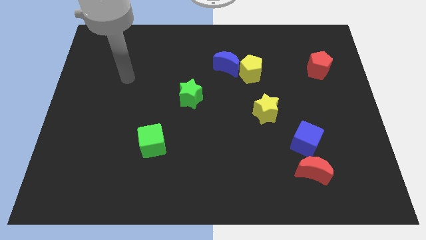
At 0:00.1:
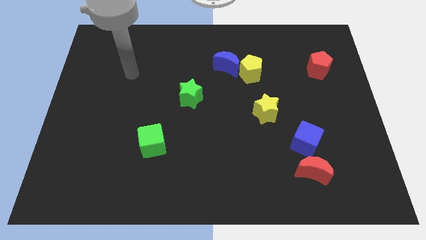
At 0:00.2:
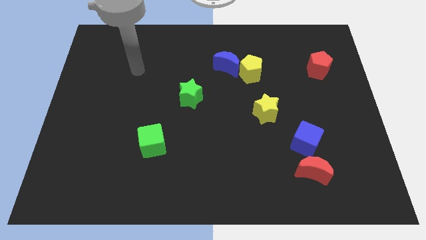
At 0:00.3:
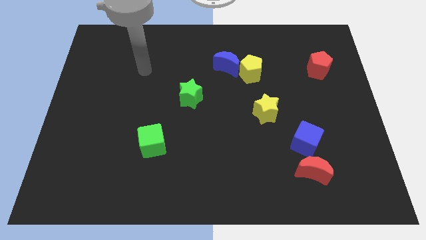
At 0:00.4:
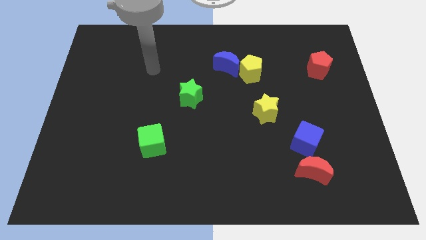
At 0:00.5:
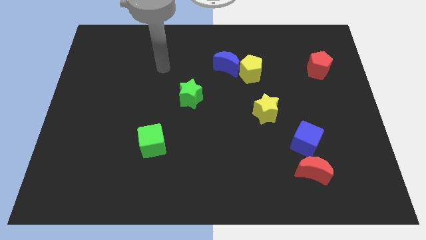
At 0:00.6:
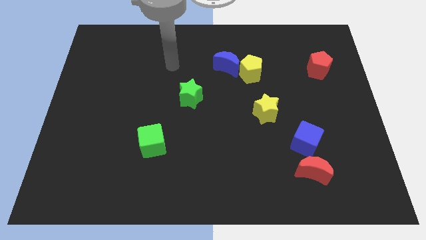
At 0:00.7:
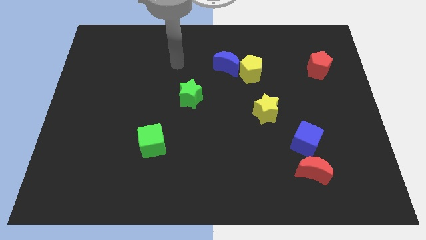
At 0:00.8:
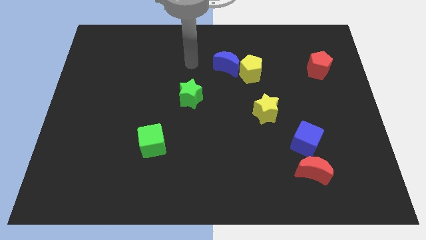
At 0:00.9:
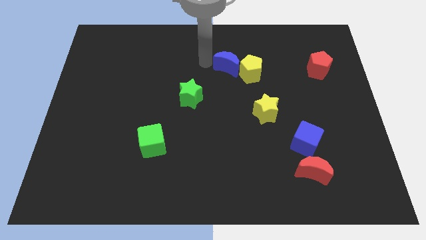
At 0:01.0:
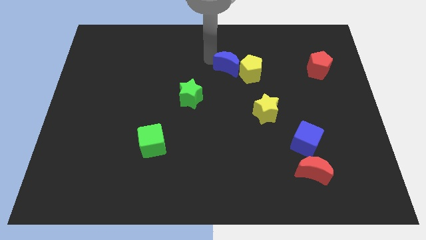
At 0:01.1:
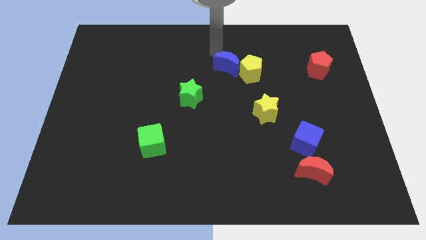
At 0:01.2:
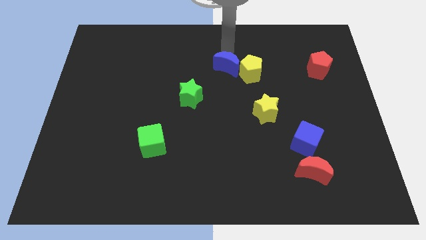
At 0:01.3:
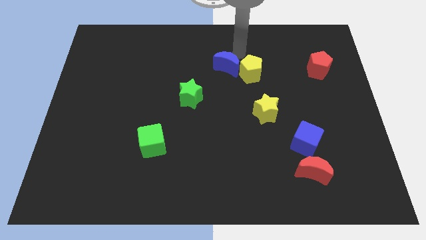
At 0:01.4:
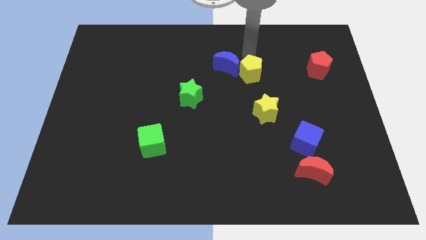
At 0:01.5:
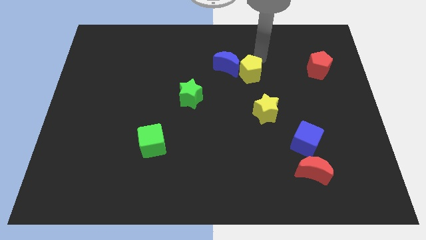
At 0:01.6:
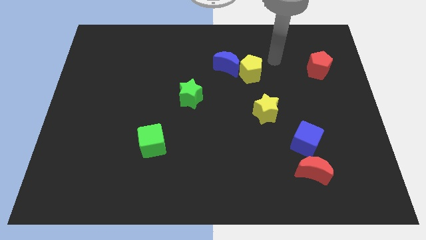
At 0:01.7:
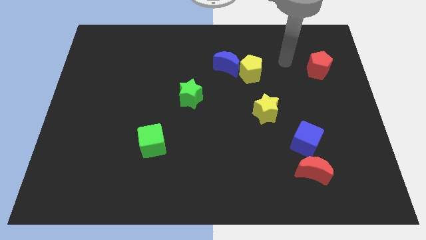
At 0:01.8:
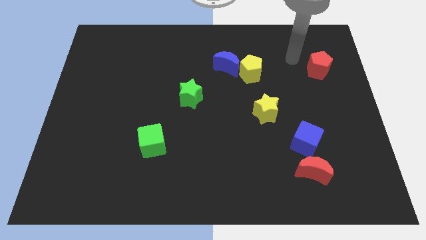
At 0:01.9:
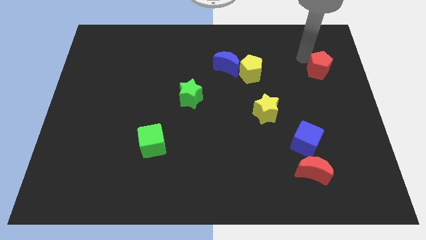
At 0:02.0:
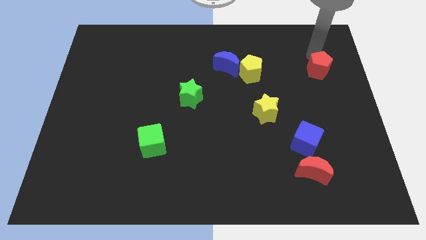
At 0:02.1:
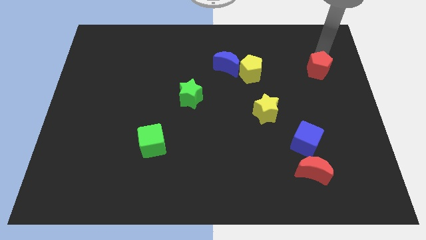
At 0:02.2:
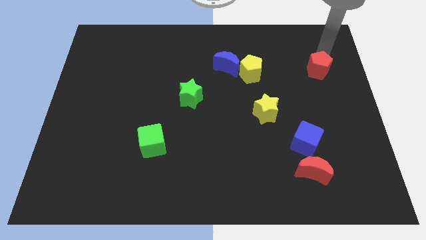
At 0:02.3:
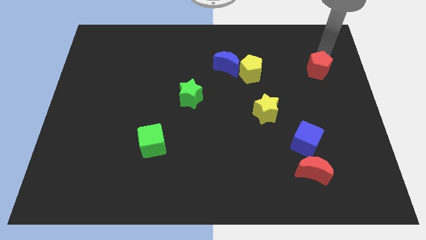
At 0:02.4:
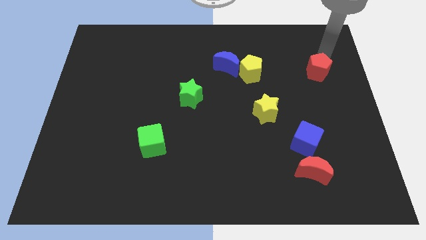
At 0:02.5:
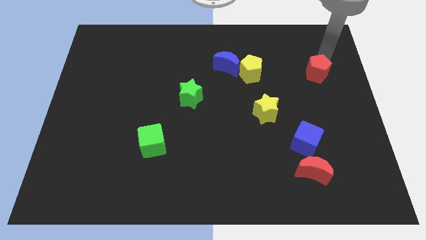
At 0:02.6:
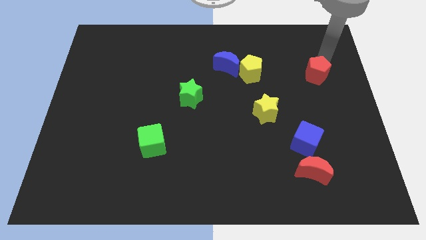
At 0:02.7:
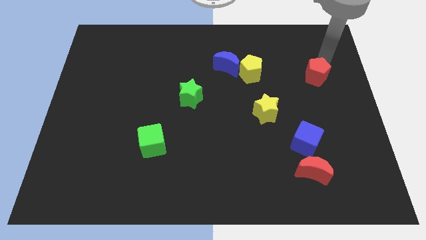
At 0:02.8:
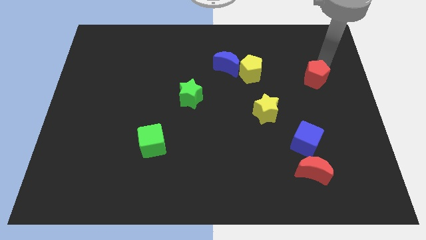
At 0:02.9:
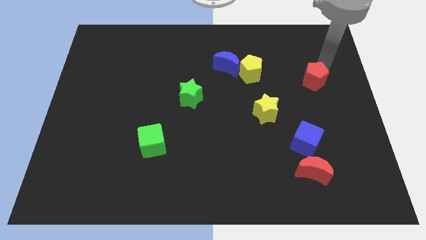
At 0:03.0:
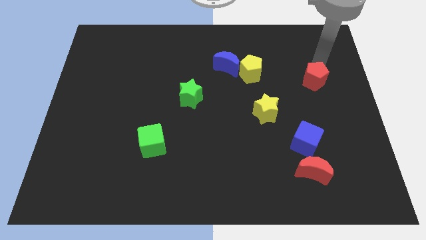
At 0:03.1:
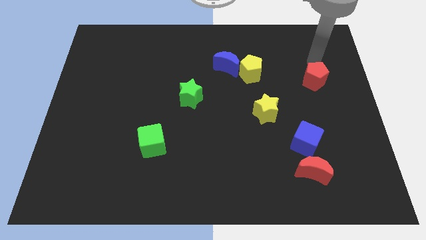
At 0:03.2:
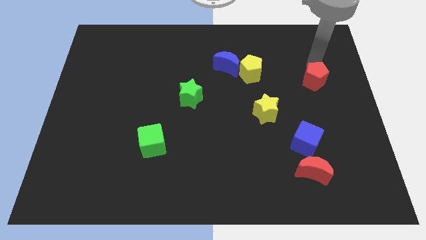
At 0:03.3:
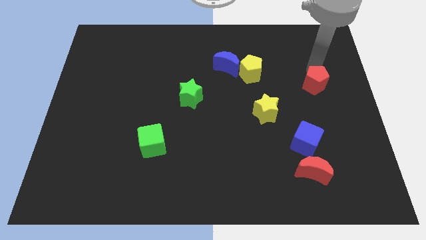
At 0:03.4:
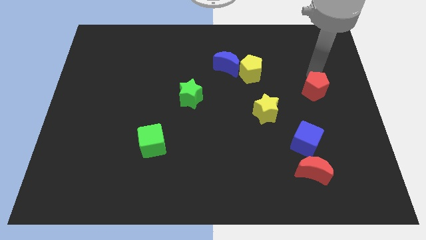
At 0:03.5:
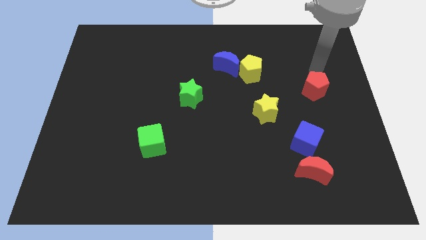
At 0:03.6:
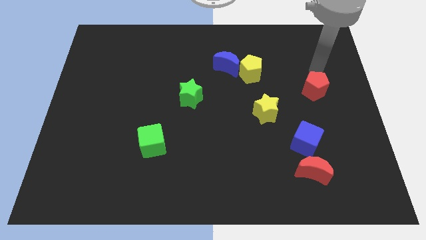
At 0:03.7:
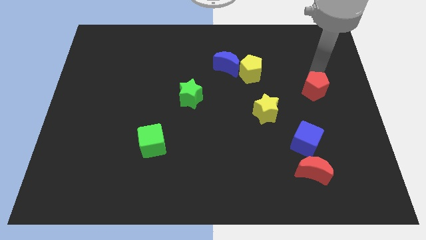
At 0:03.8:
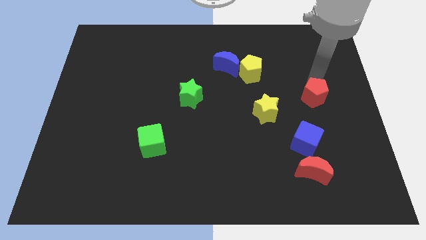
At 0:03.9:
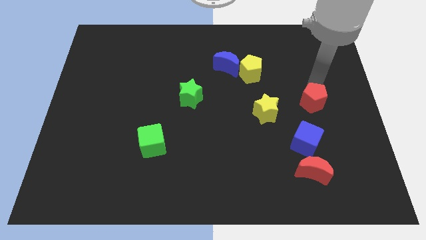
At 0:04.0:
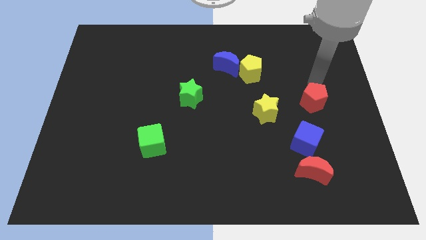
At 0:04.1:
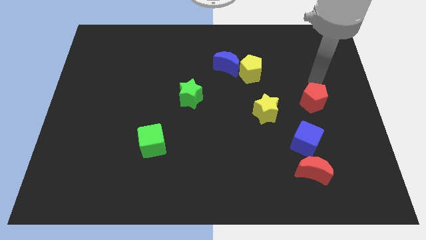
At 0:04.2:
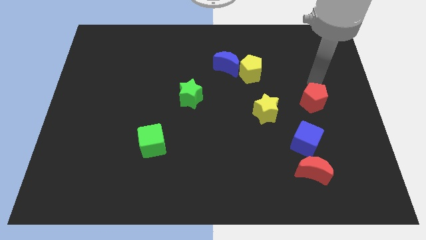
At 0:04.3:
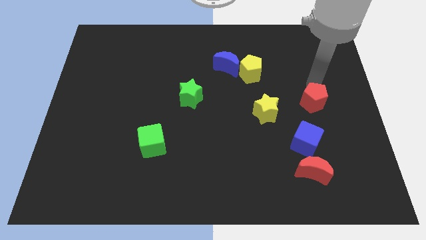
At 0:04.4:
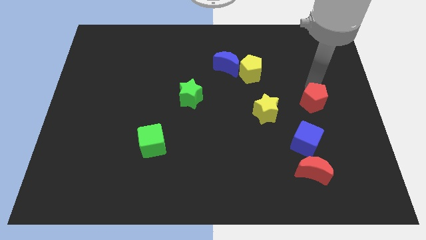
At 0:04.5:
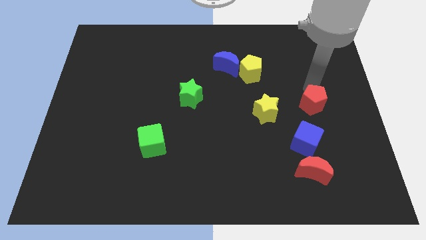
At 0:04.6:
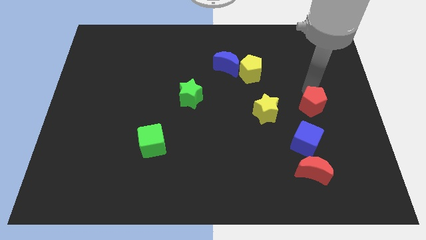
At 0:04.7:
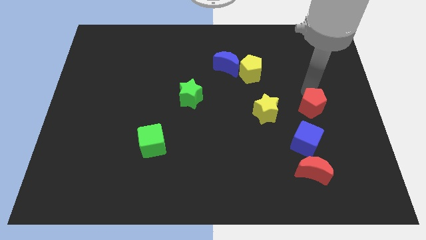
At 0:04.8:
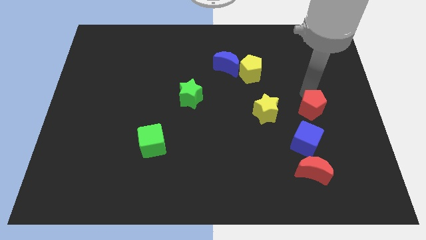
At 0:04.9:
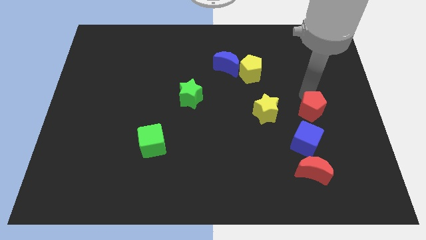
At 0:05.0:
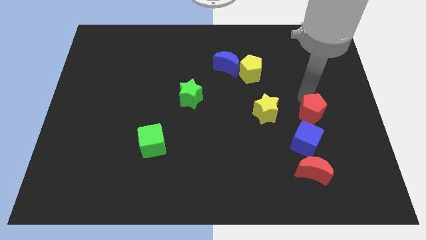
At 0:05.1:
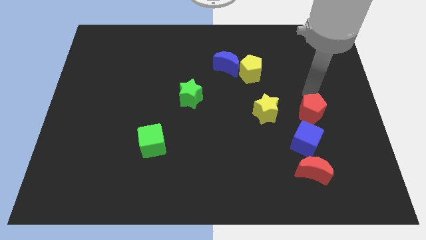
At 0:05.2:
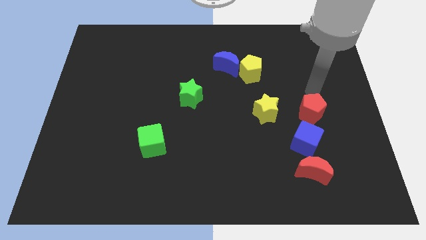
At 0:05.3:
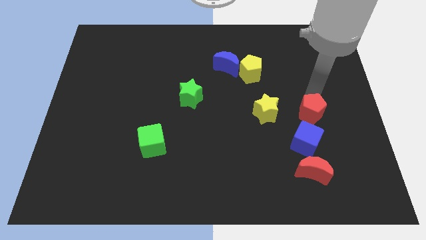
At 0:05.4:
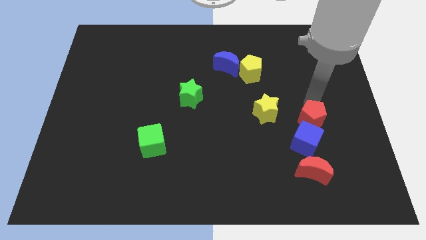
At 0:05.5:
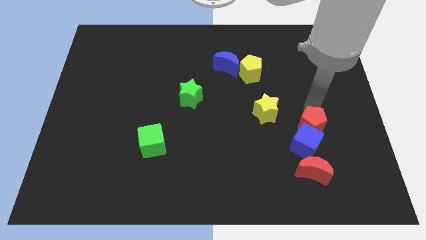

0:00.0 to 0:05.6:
put the red pentagon next to the blue cube

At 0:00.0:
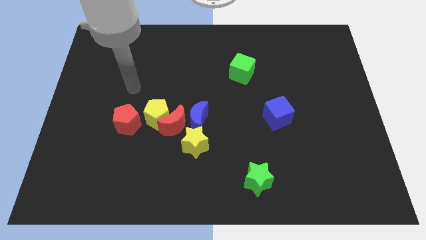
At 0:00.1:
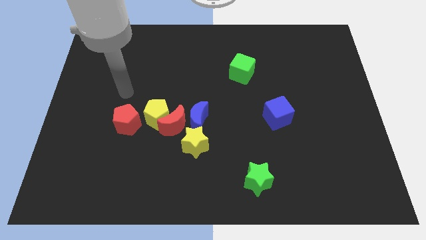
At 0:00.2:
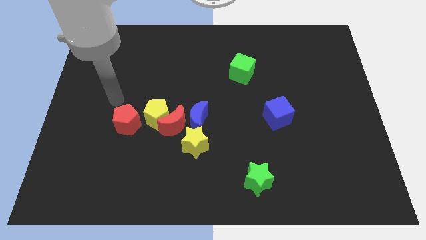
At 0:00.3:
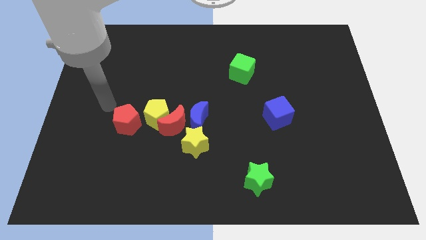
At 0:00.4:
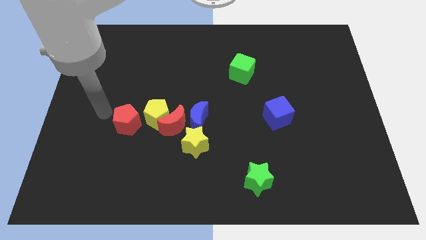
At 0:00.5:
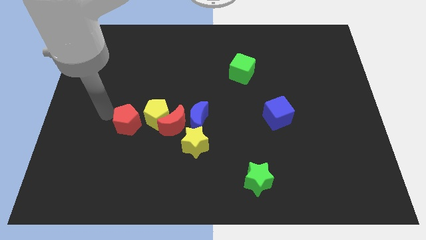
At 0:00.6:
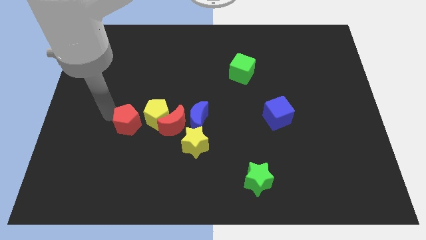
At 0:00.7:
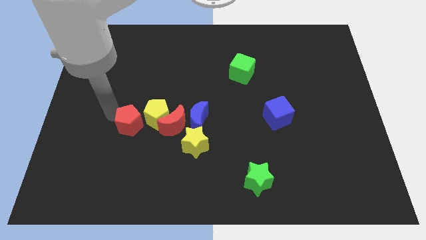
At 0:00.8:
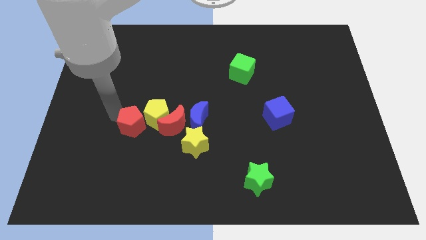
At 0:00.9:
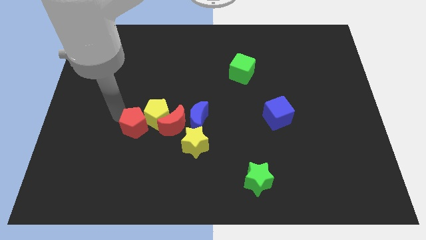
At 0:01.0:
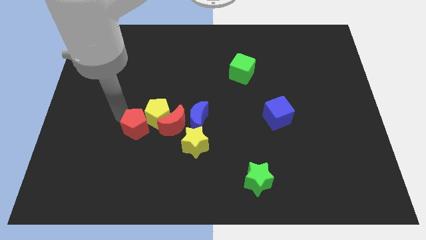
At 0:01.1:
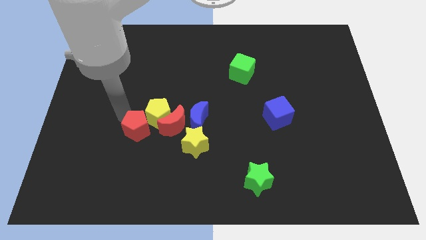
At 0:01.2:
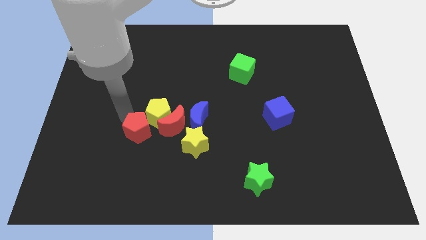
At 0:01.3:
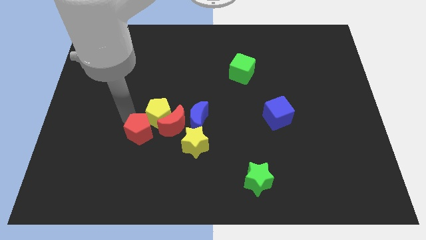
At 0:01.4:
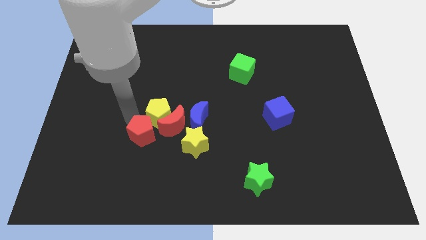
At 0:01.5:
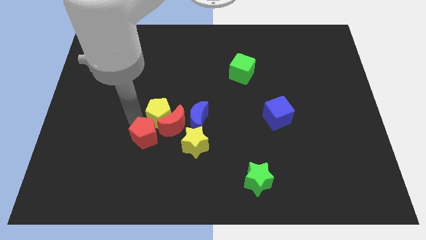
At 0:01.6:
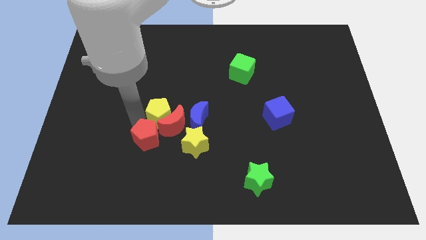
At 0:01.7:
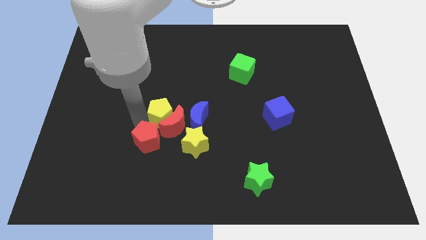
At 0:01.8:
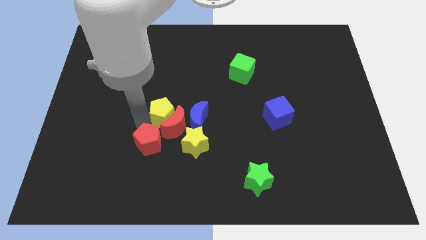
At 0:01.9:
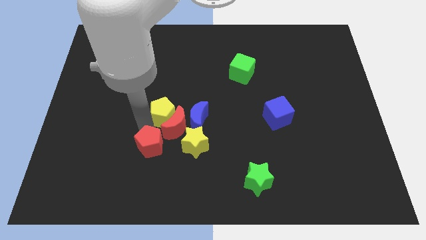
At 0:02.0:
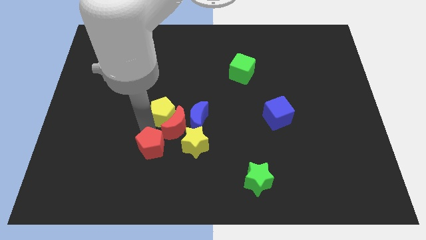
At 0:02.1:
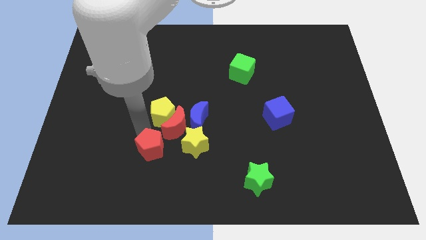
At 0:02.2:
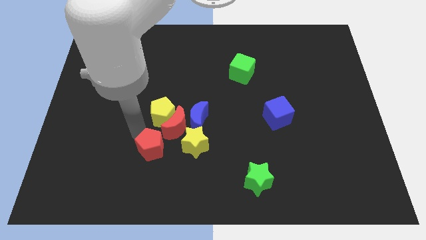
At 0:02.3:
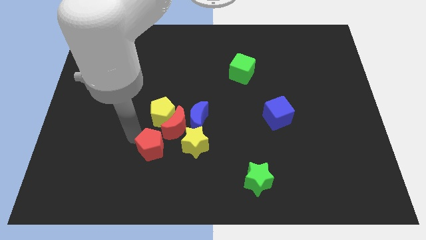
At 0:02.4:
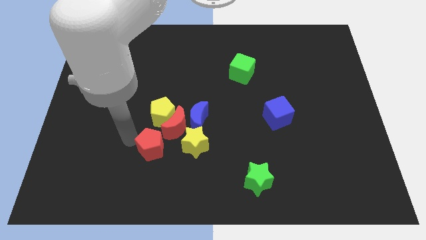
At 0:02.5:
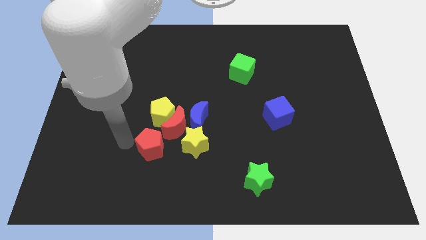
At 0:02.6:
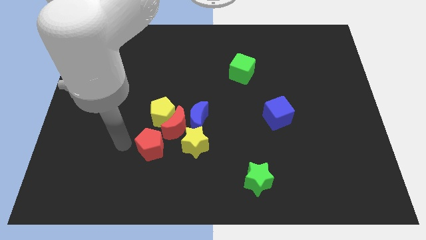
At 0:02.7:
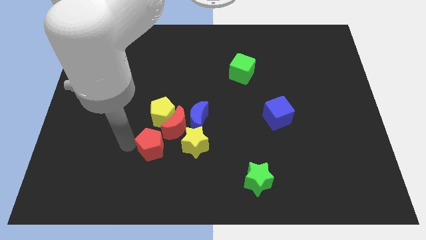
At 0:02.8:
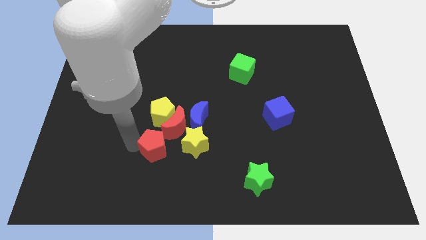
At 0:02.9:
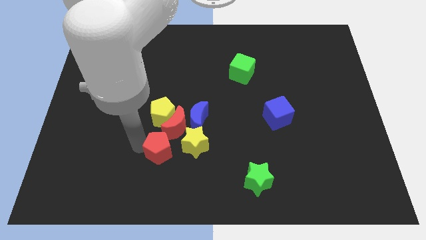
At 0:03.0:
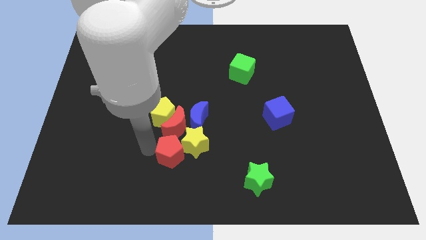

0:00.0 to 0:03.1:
put the red pentagon to the yellow star
